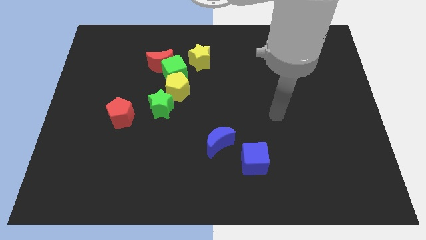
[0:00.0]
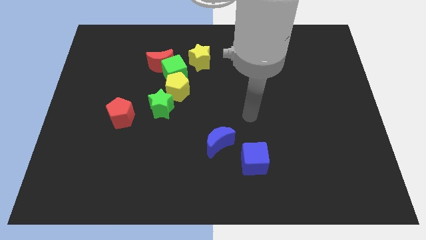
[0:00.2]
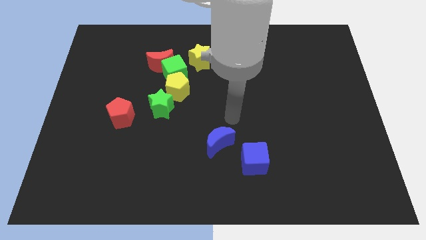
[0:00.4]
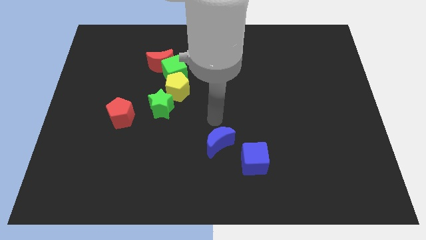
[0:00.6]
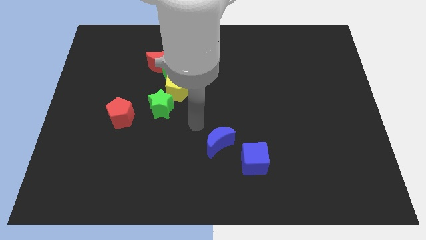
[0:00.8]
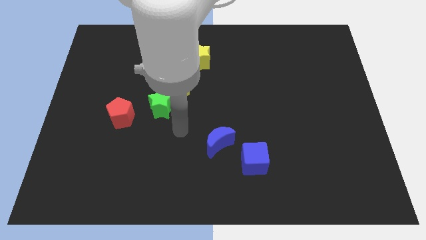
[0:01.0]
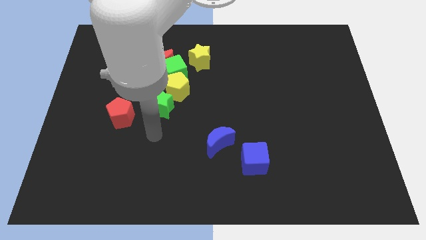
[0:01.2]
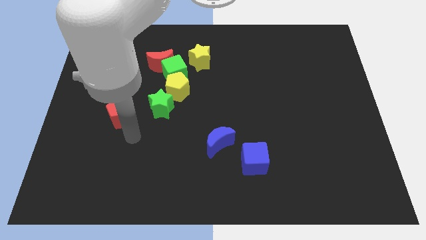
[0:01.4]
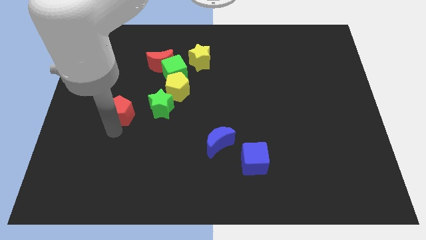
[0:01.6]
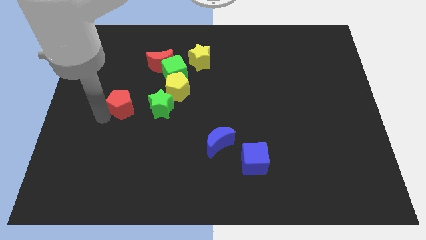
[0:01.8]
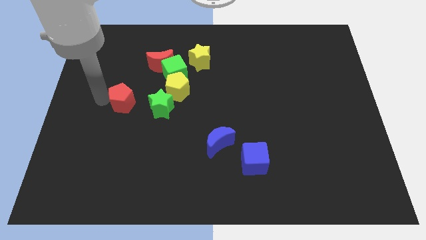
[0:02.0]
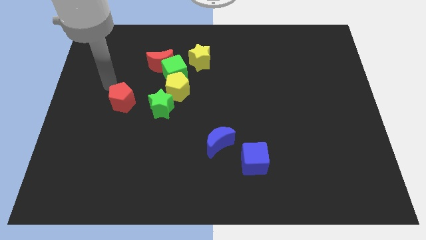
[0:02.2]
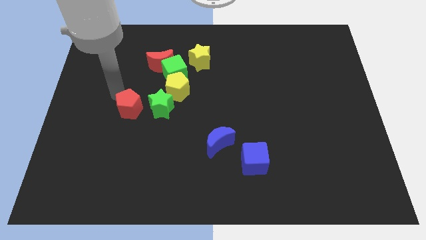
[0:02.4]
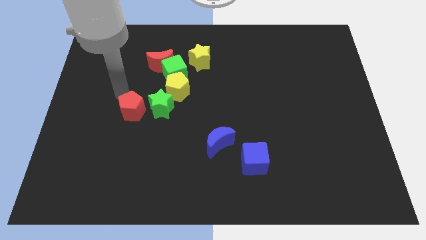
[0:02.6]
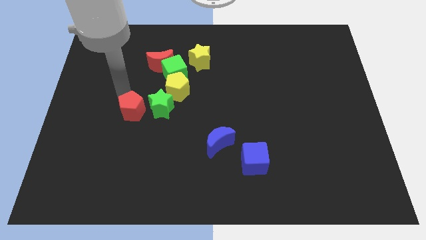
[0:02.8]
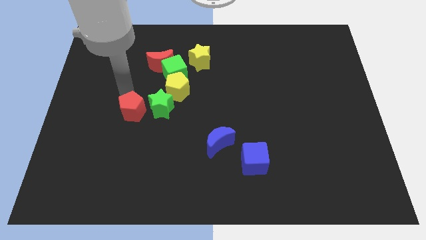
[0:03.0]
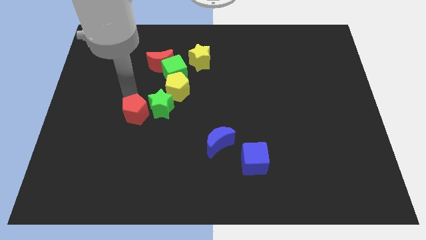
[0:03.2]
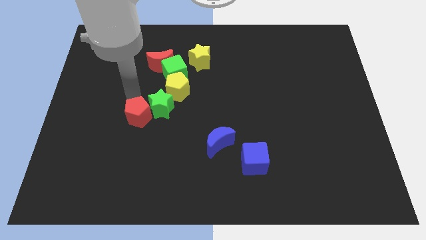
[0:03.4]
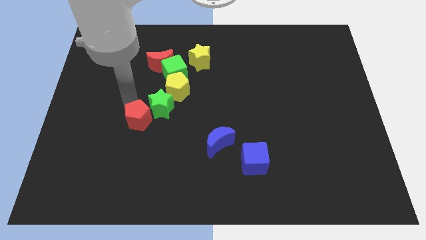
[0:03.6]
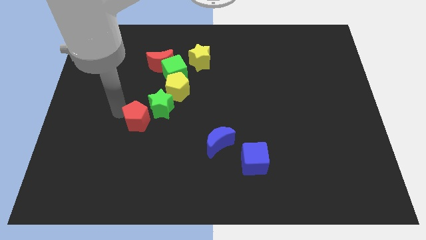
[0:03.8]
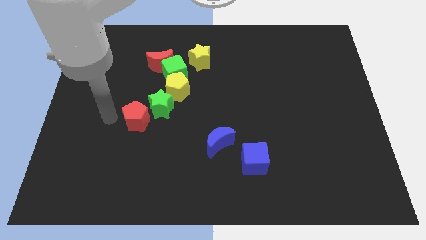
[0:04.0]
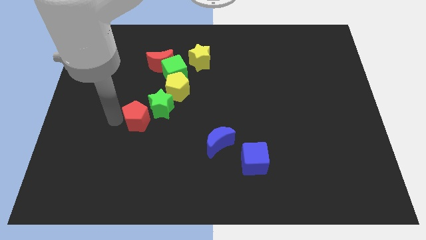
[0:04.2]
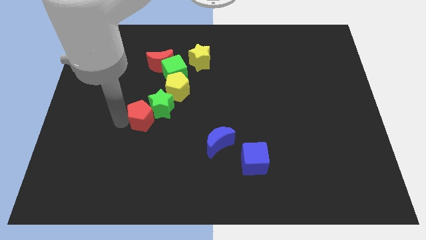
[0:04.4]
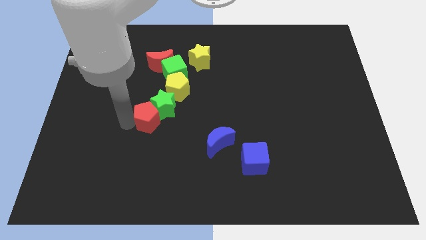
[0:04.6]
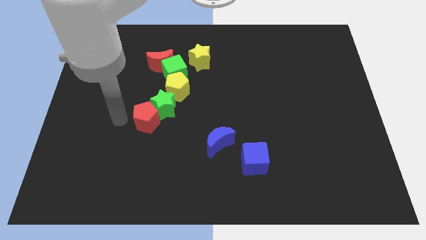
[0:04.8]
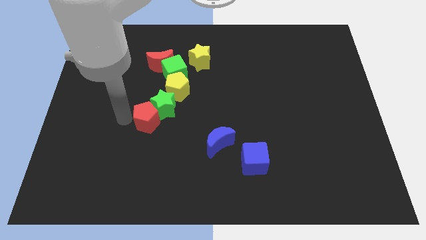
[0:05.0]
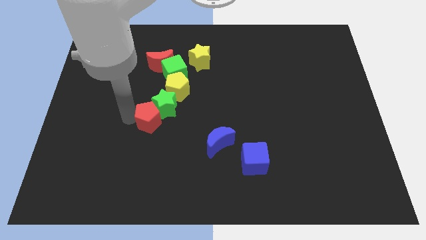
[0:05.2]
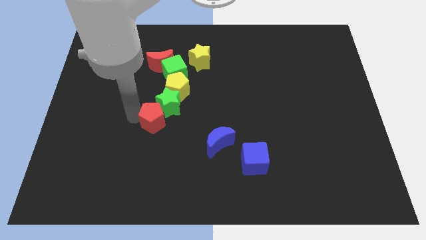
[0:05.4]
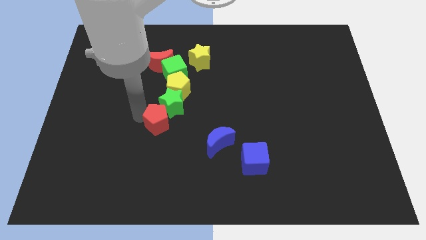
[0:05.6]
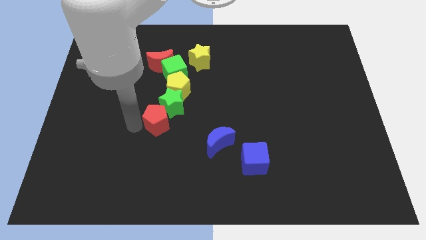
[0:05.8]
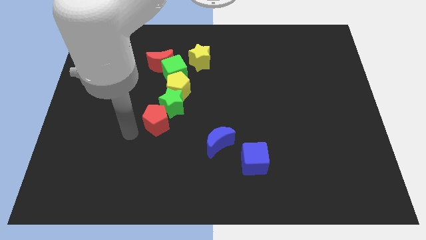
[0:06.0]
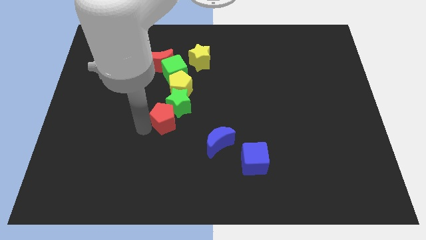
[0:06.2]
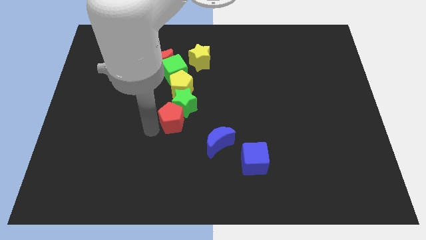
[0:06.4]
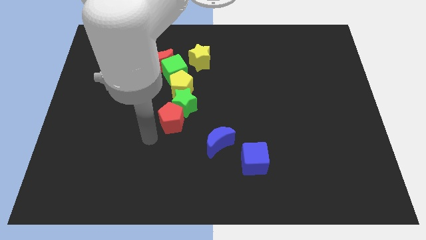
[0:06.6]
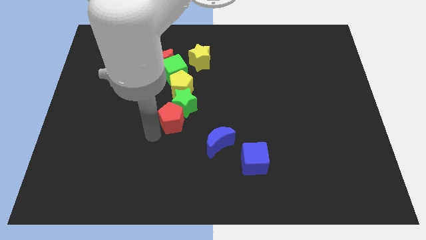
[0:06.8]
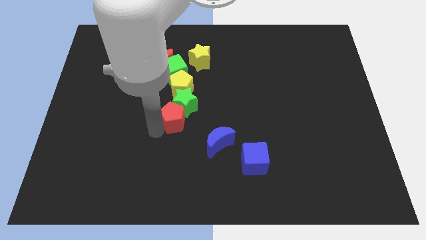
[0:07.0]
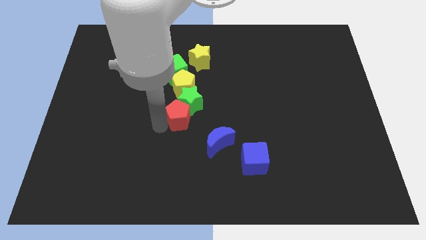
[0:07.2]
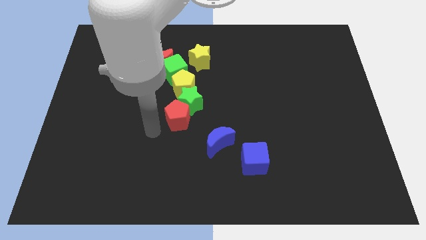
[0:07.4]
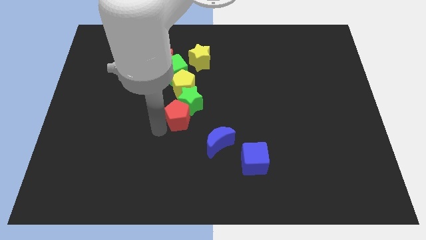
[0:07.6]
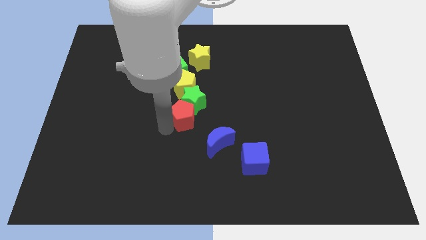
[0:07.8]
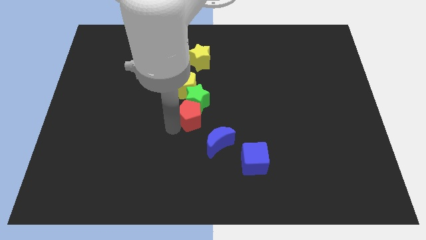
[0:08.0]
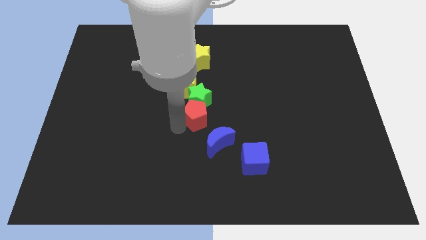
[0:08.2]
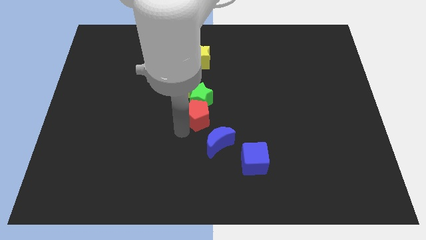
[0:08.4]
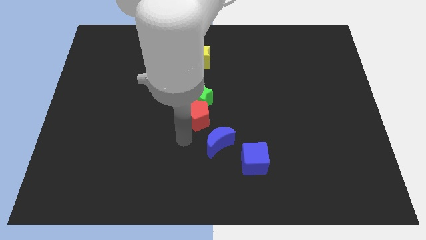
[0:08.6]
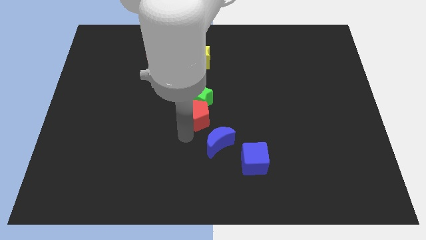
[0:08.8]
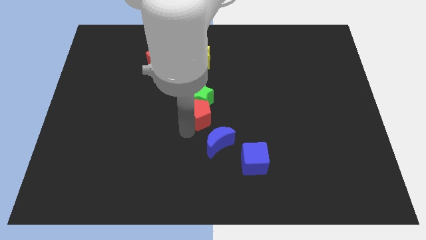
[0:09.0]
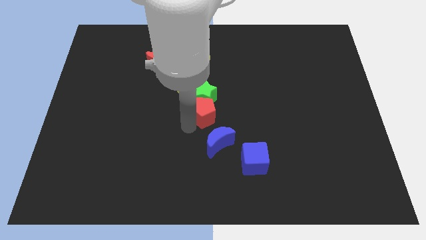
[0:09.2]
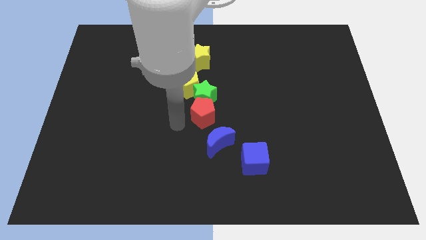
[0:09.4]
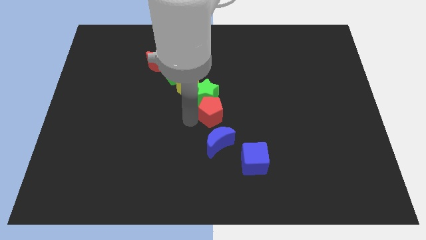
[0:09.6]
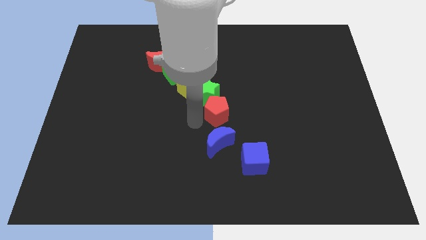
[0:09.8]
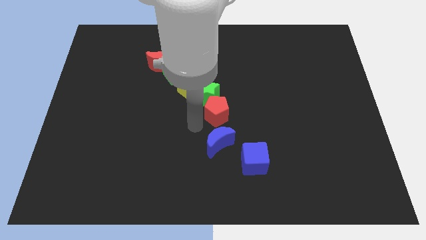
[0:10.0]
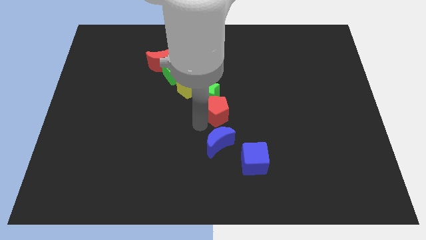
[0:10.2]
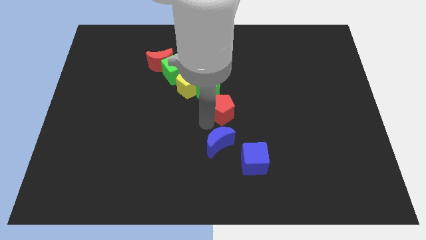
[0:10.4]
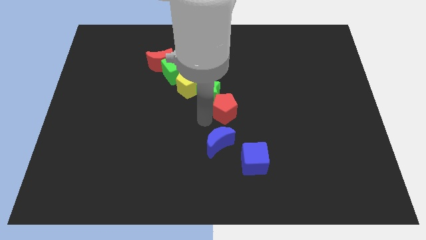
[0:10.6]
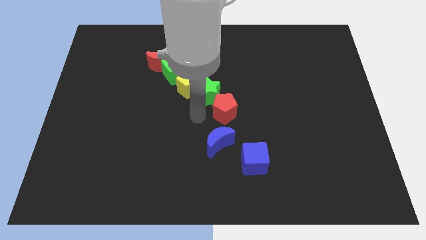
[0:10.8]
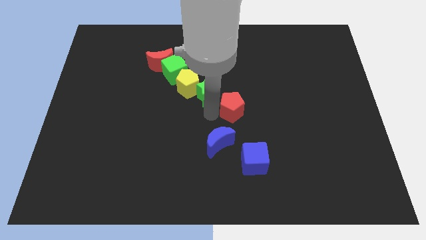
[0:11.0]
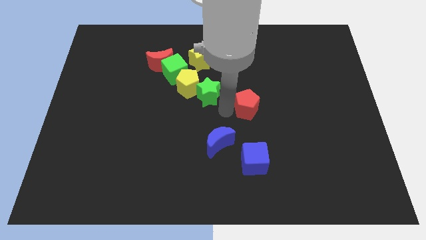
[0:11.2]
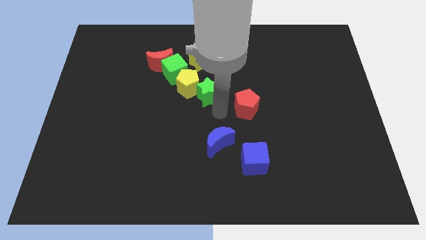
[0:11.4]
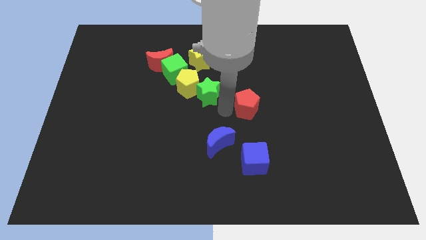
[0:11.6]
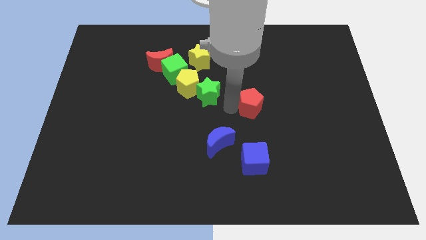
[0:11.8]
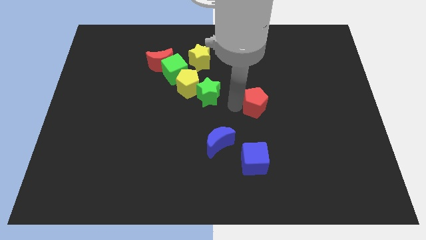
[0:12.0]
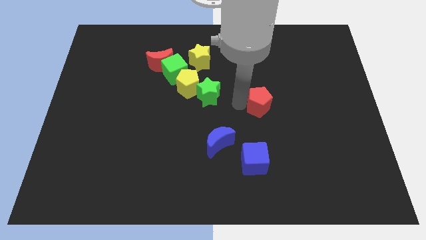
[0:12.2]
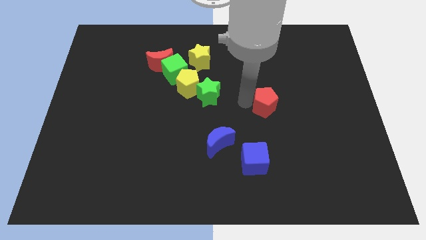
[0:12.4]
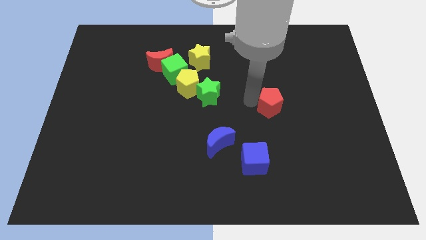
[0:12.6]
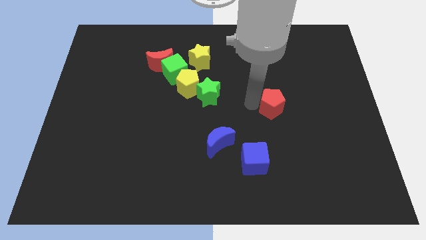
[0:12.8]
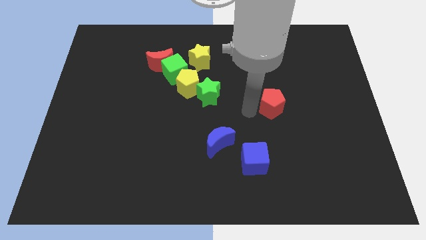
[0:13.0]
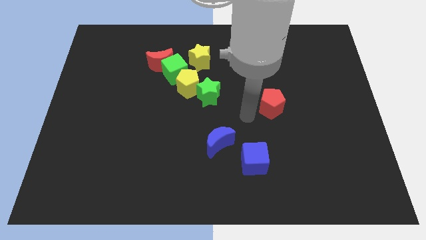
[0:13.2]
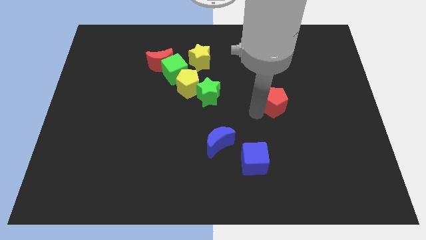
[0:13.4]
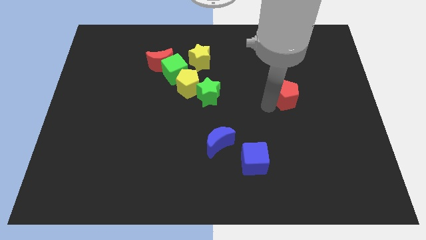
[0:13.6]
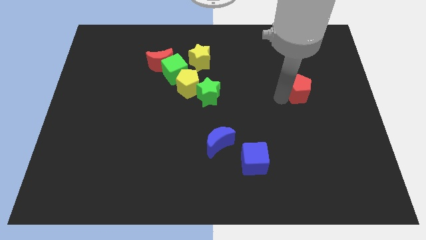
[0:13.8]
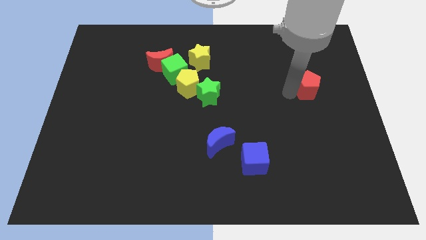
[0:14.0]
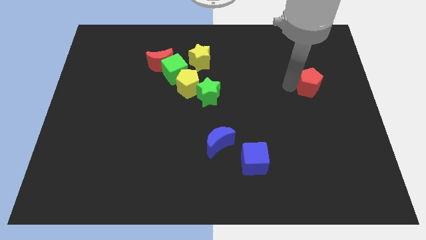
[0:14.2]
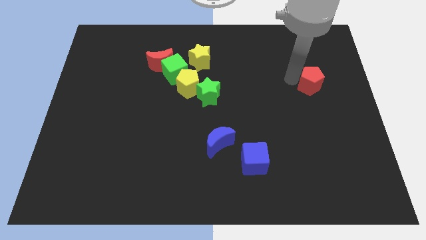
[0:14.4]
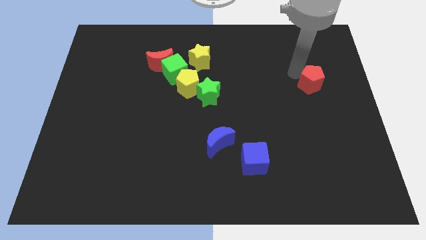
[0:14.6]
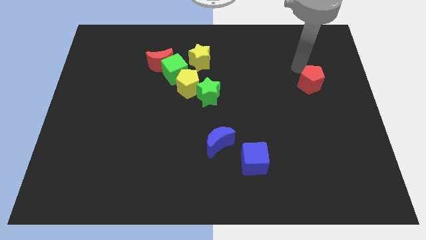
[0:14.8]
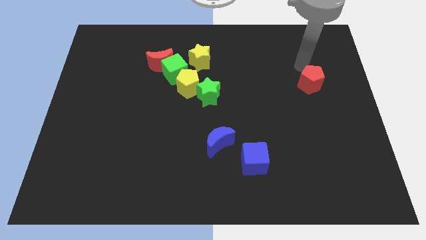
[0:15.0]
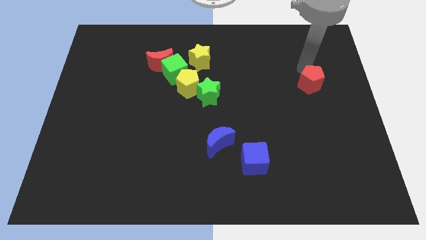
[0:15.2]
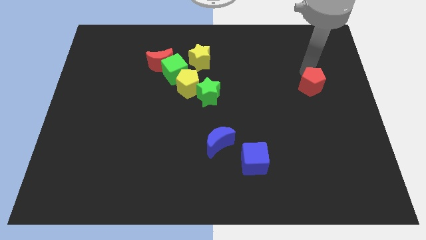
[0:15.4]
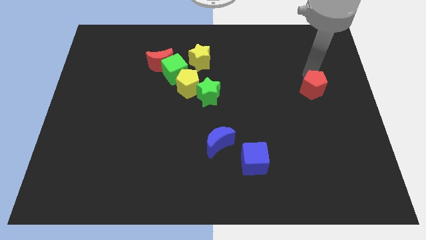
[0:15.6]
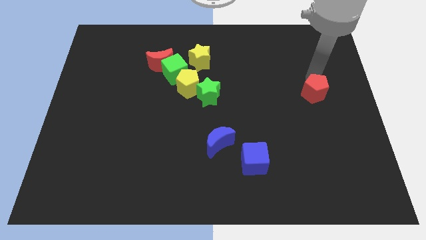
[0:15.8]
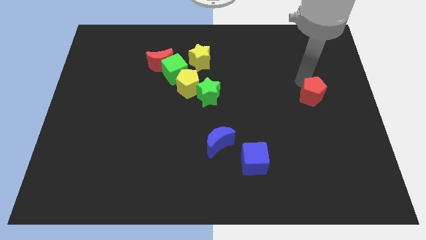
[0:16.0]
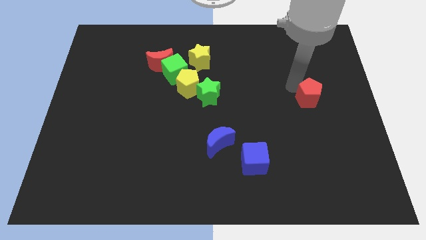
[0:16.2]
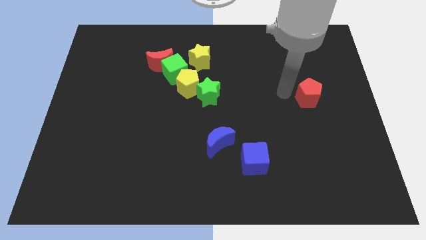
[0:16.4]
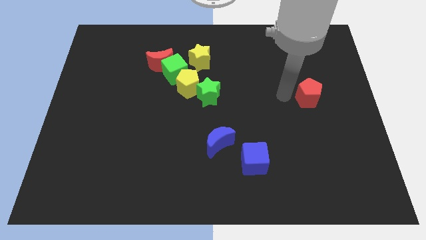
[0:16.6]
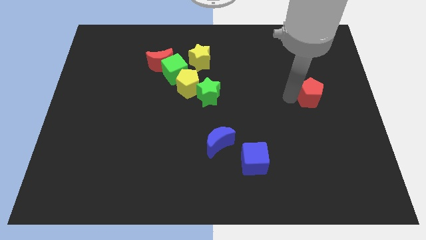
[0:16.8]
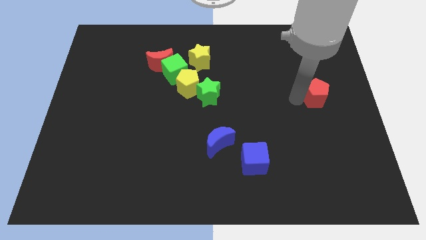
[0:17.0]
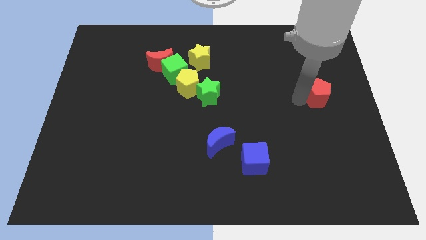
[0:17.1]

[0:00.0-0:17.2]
move the red pentagon to the right side of the board
